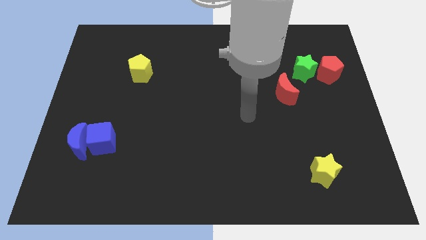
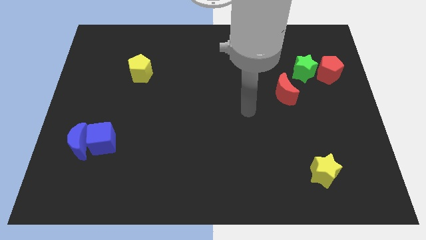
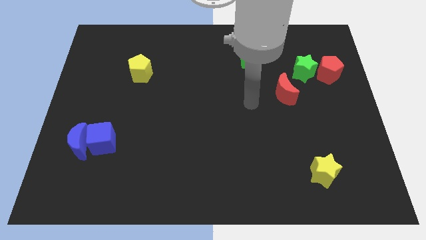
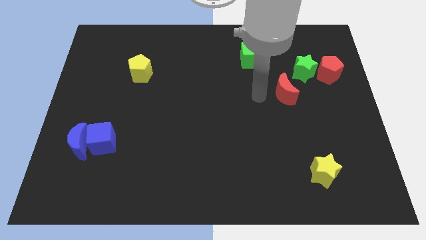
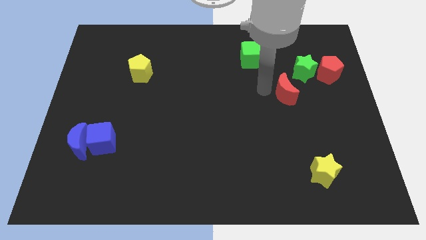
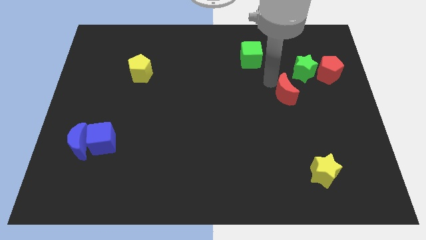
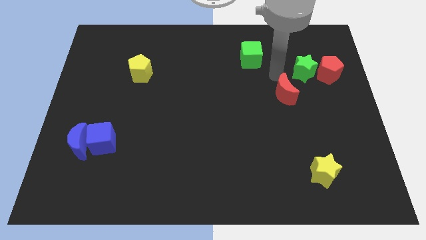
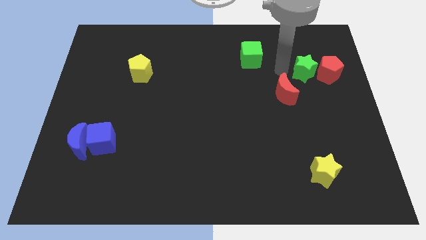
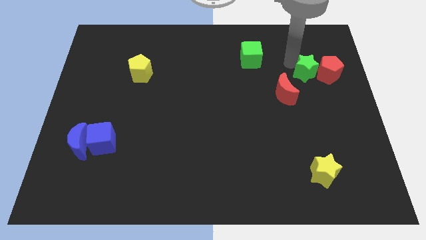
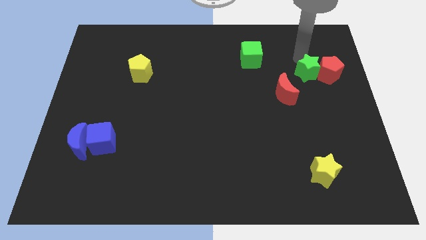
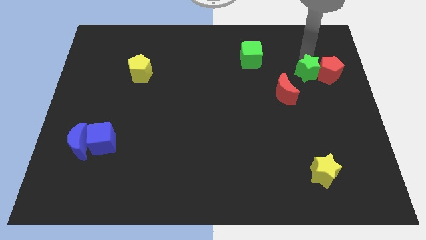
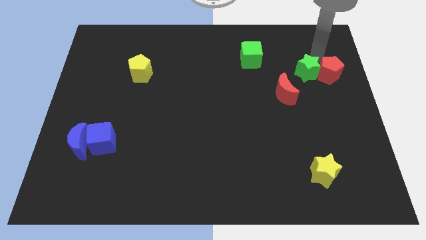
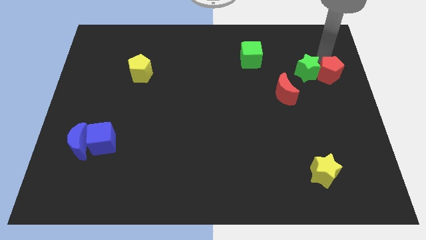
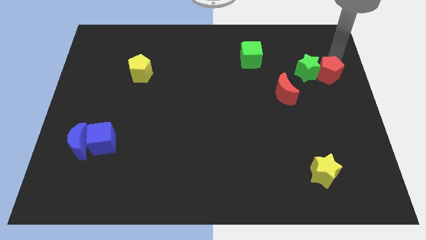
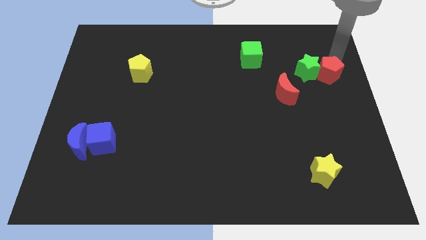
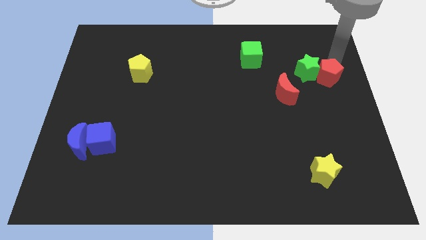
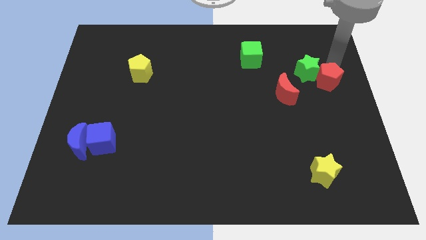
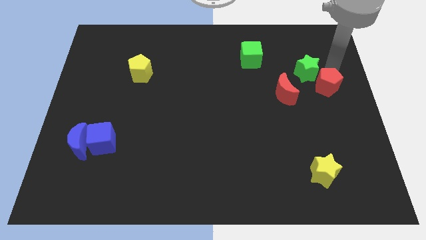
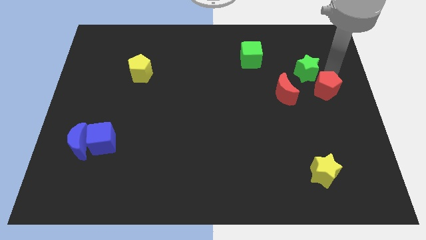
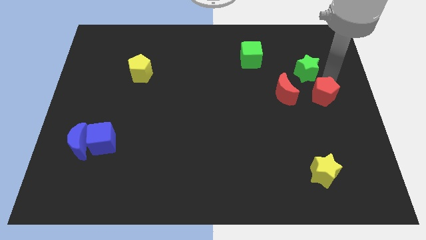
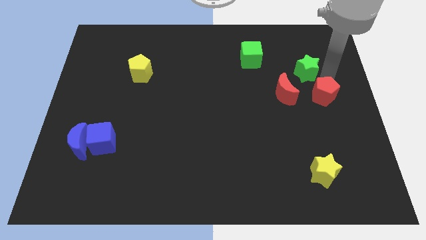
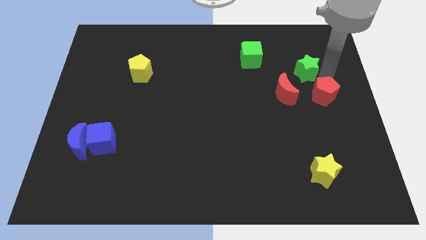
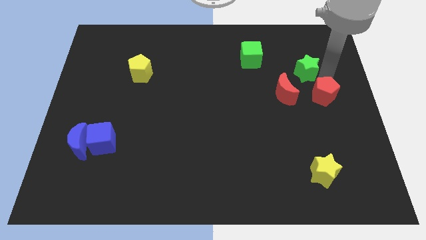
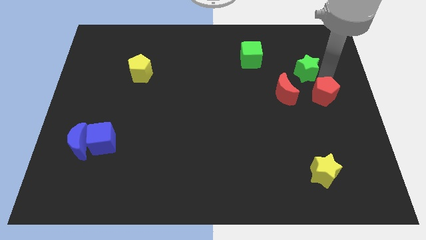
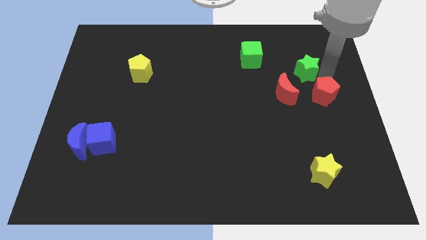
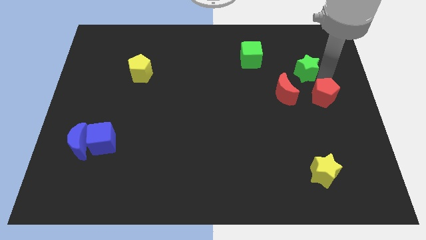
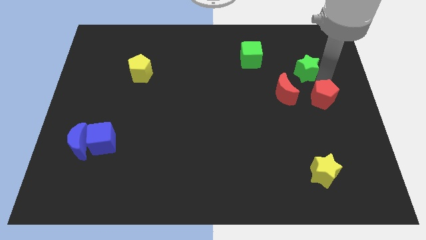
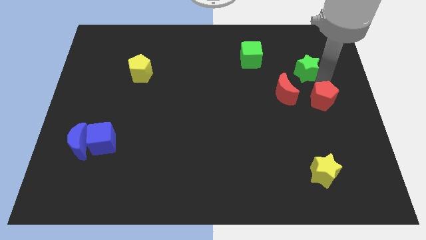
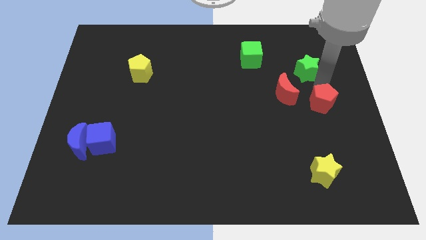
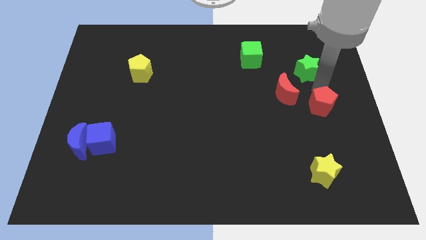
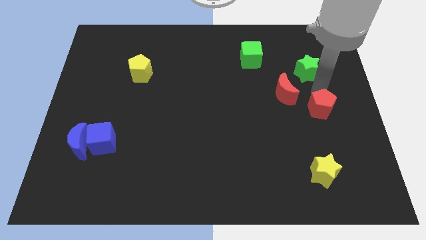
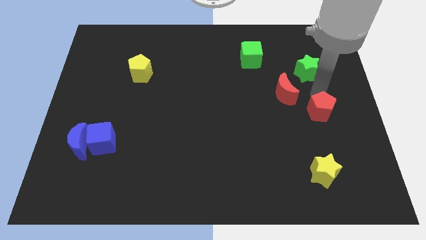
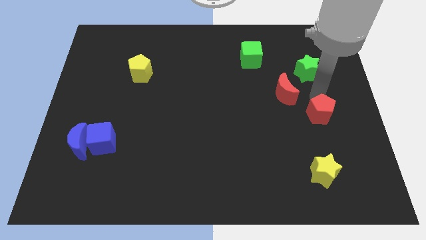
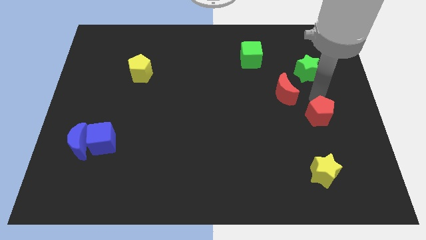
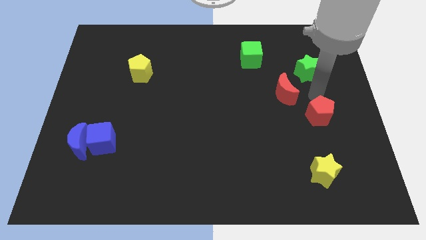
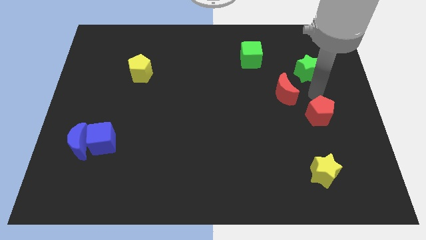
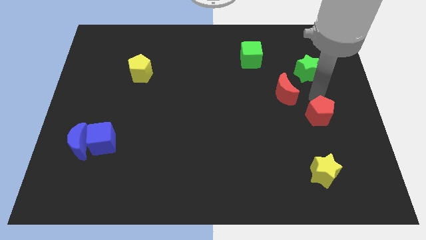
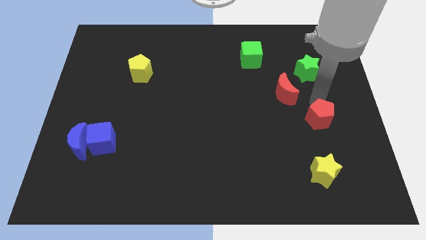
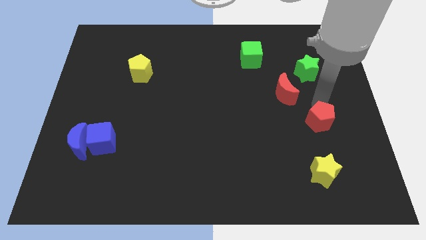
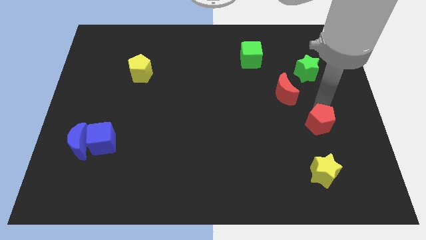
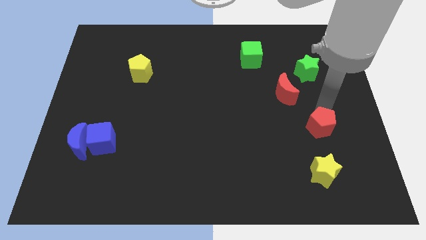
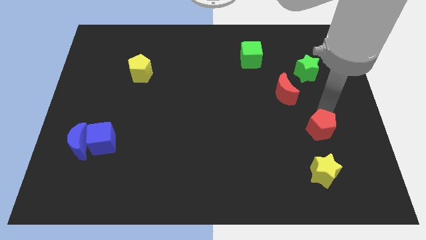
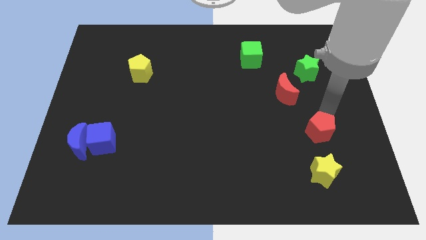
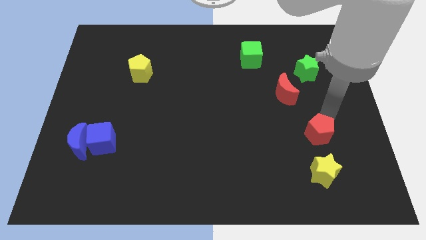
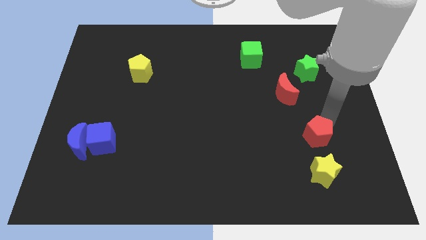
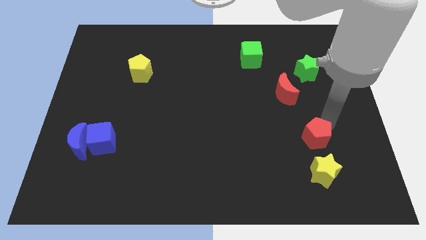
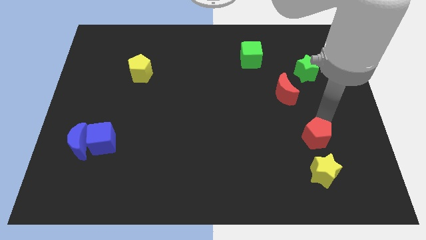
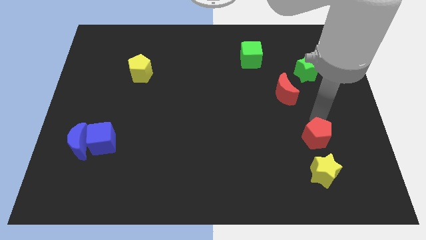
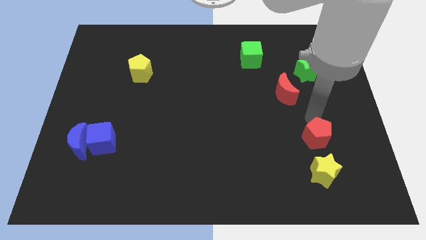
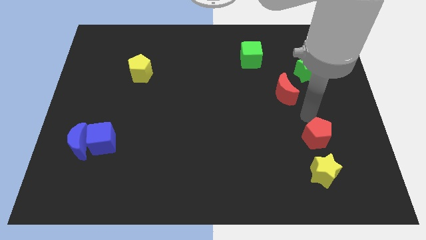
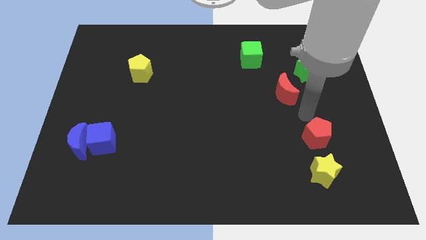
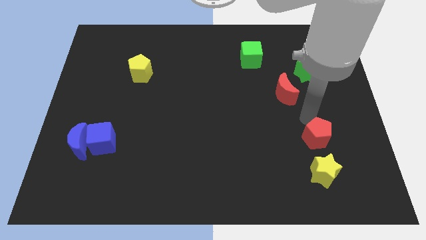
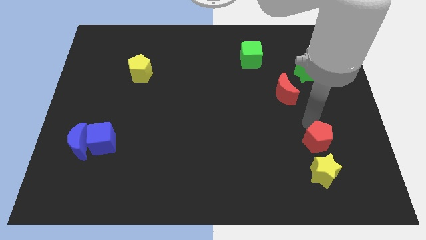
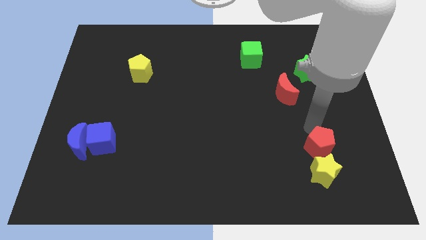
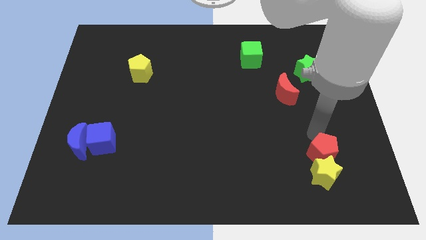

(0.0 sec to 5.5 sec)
move the red pentagon close to the yellow star

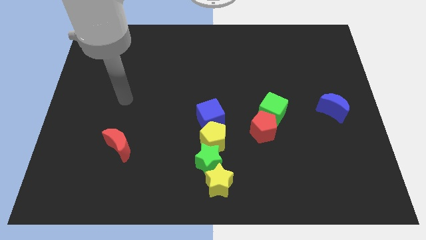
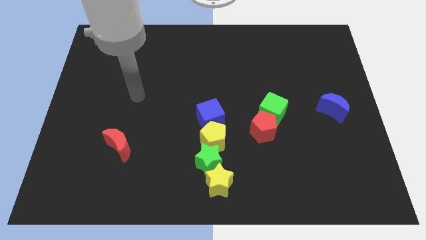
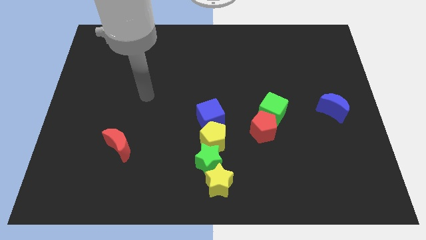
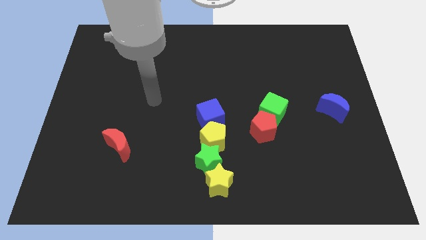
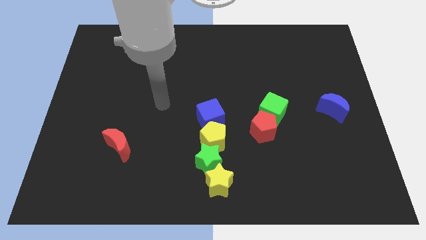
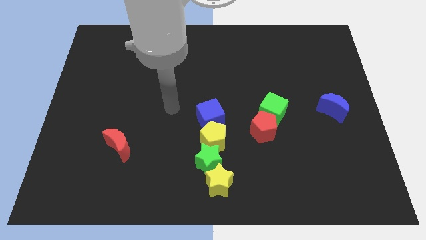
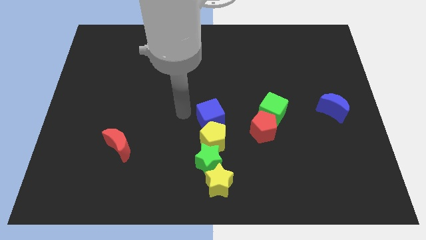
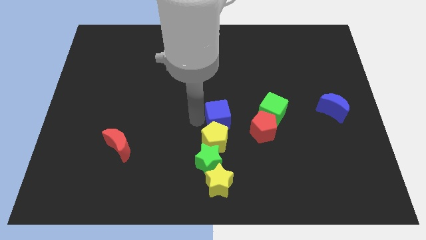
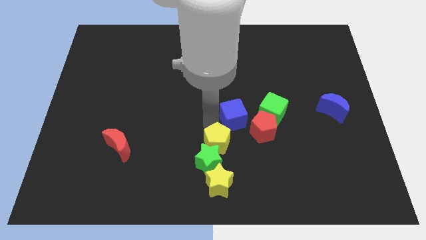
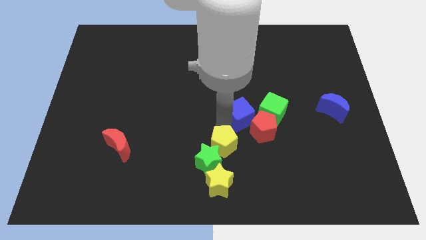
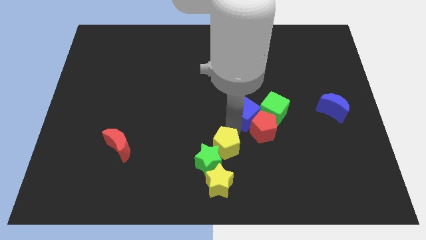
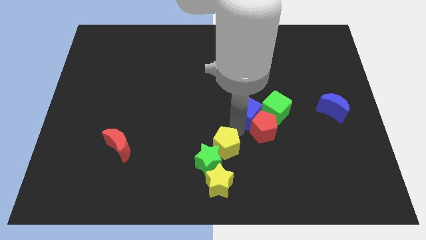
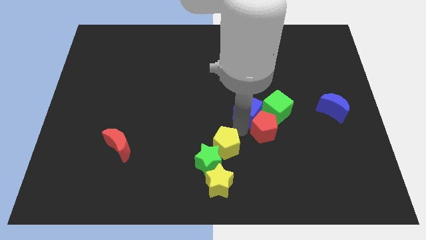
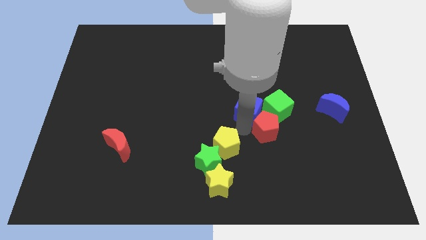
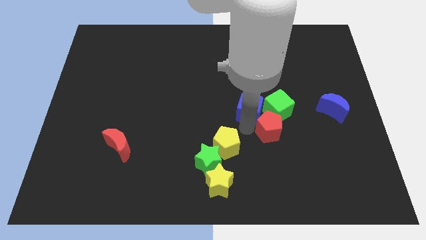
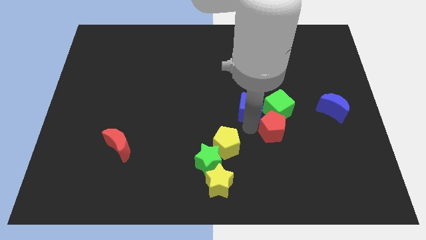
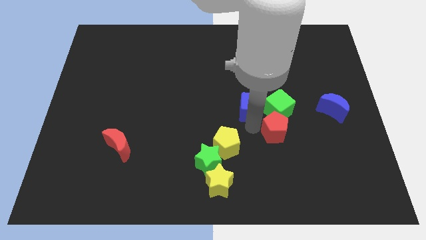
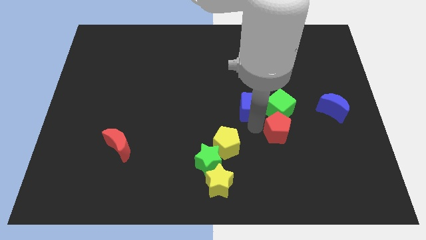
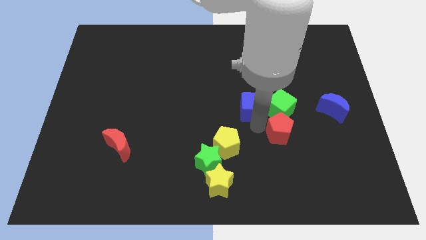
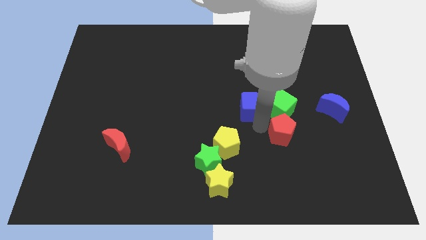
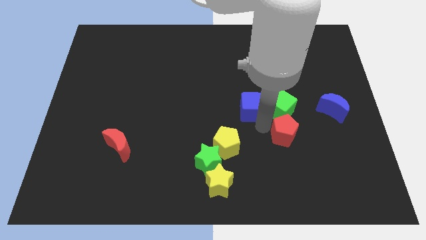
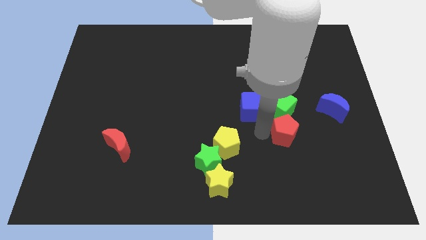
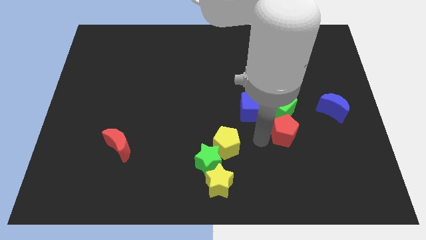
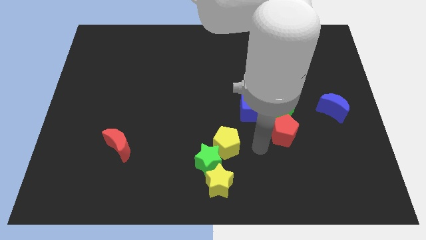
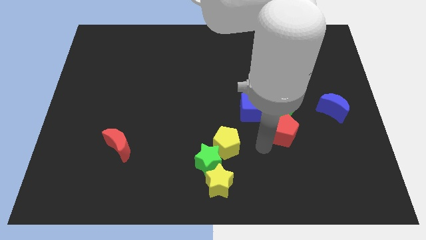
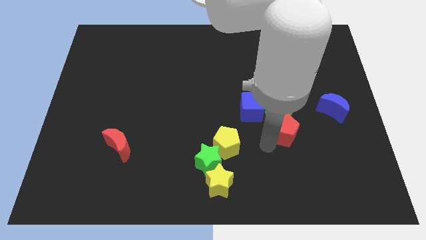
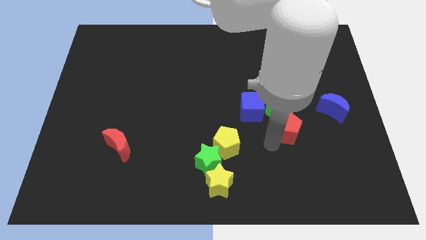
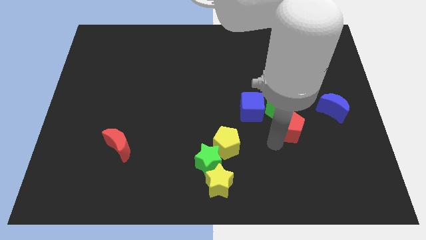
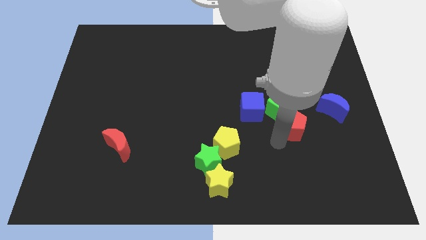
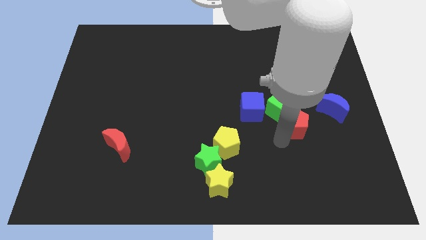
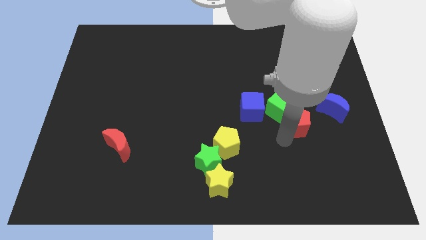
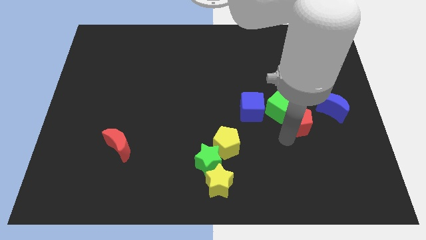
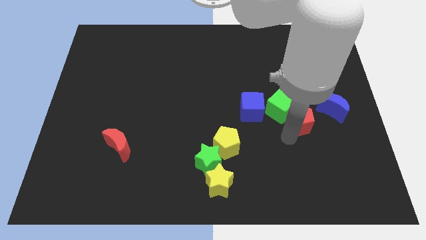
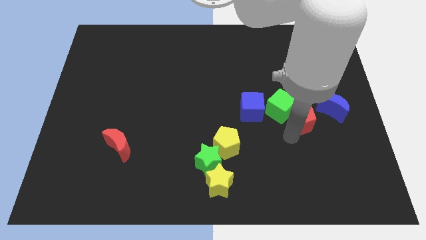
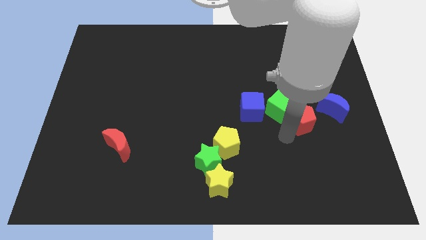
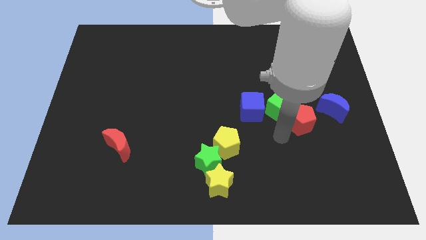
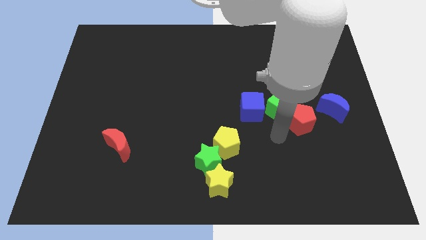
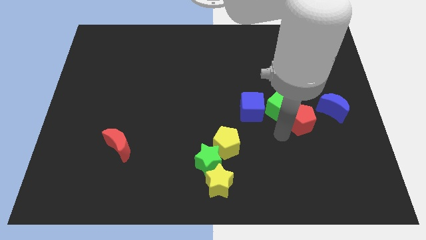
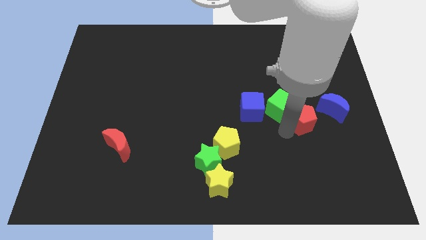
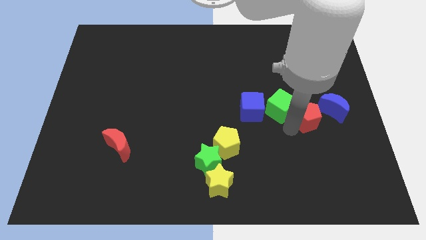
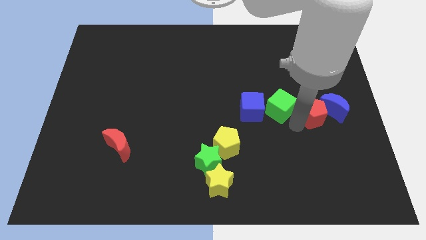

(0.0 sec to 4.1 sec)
put the red pentagon towards the blue moon
